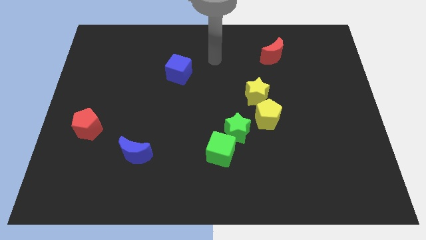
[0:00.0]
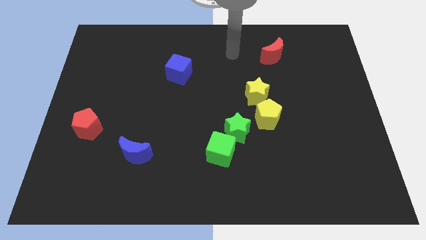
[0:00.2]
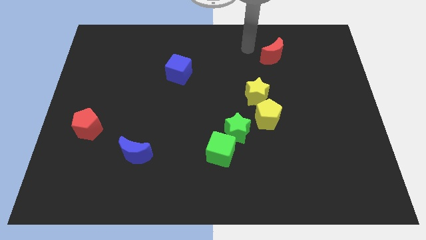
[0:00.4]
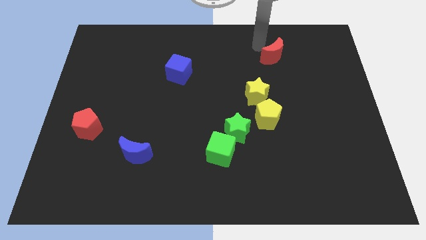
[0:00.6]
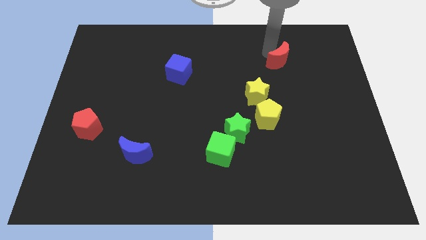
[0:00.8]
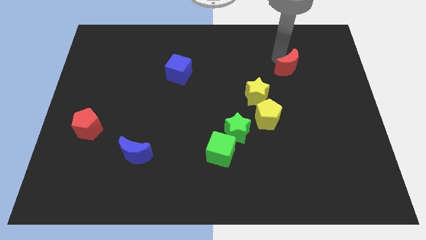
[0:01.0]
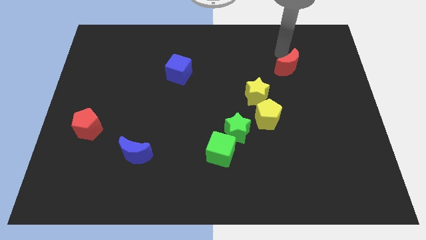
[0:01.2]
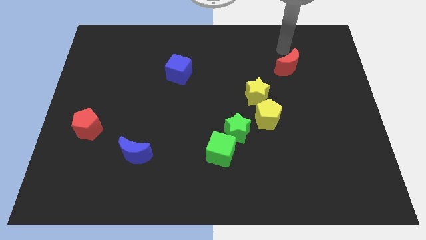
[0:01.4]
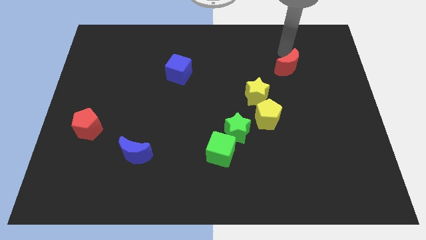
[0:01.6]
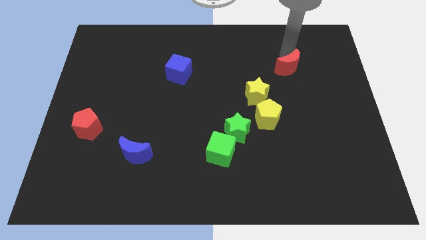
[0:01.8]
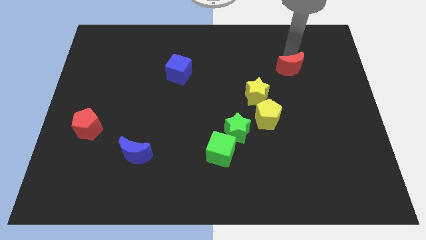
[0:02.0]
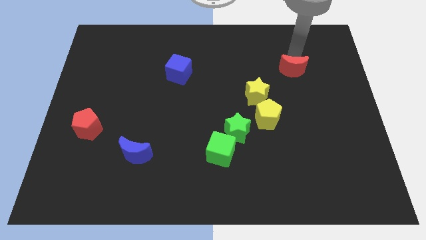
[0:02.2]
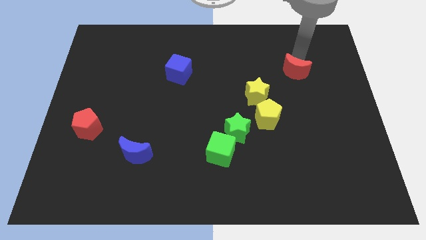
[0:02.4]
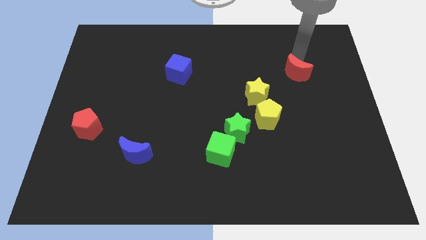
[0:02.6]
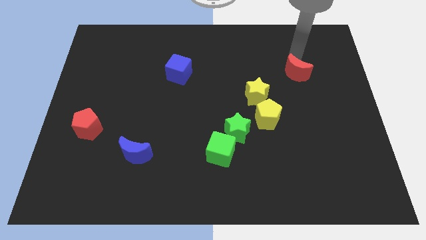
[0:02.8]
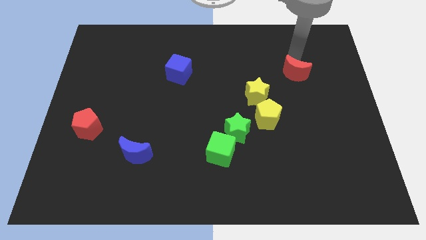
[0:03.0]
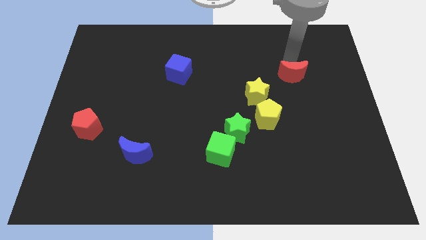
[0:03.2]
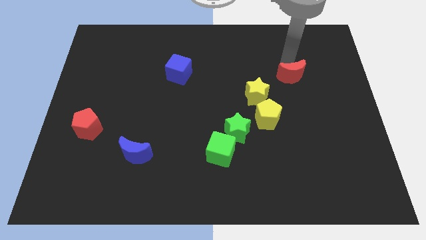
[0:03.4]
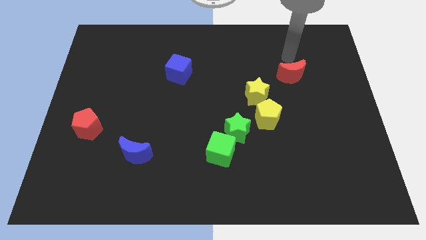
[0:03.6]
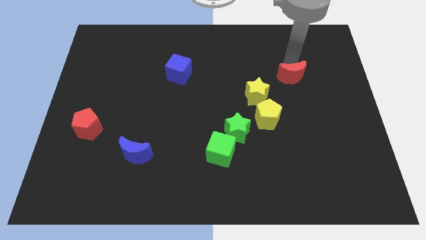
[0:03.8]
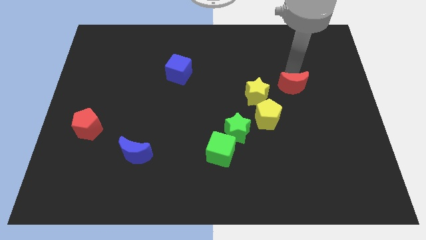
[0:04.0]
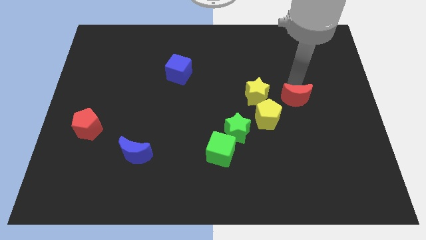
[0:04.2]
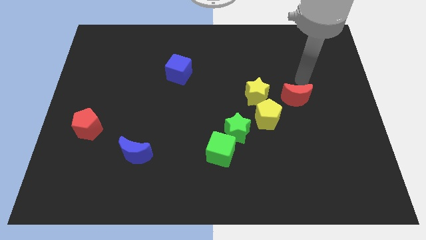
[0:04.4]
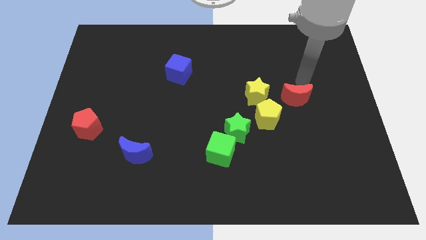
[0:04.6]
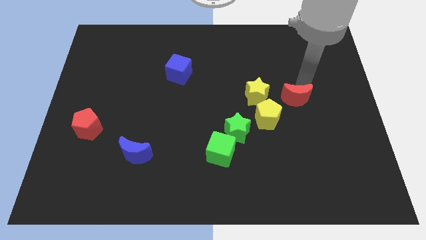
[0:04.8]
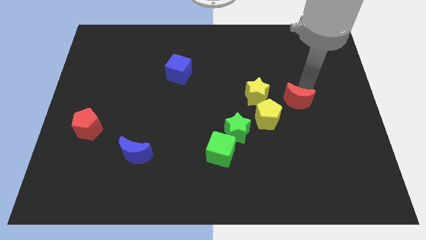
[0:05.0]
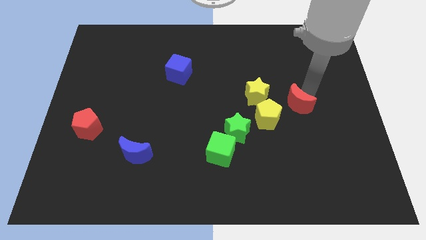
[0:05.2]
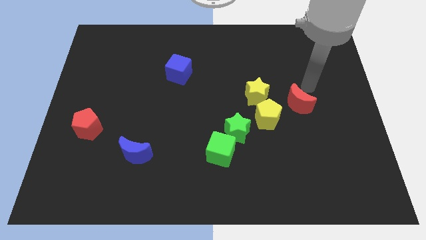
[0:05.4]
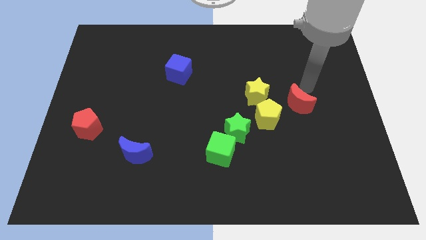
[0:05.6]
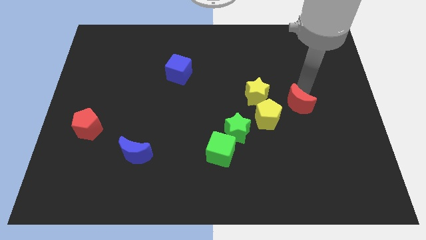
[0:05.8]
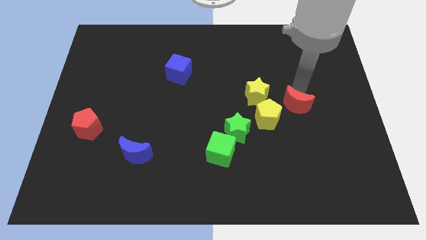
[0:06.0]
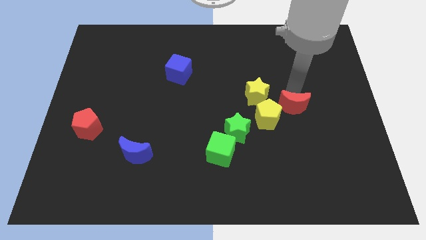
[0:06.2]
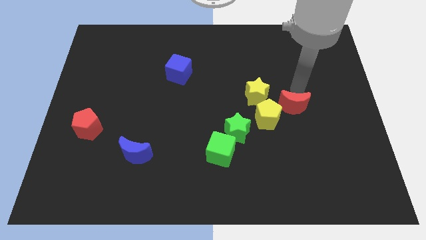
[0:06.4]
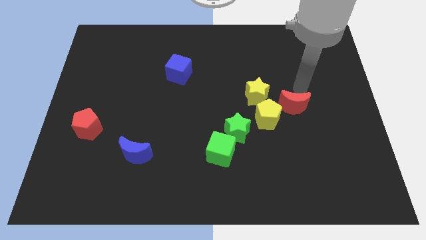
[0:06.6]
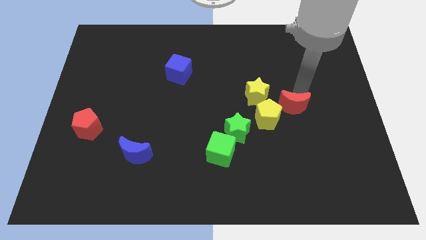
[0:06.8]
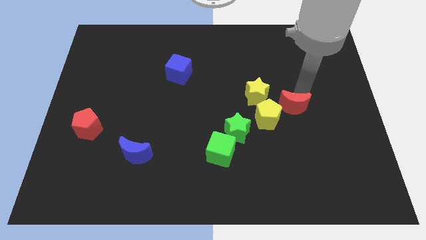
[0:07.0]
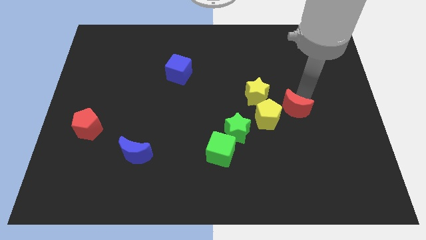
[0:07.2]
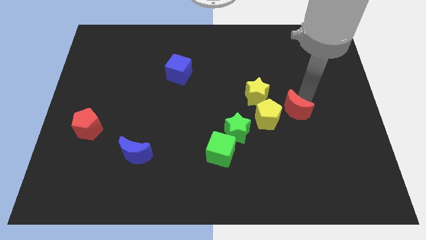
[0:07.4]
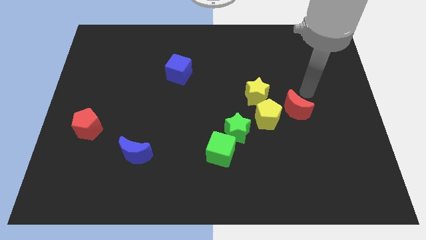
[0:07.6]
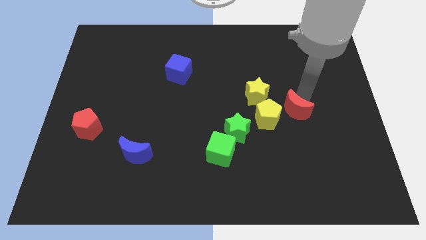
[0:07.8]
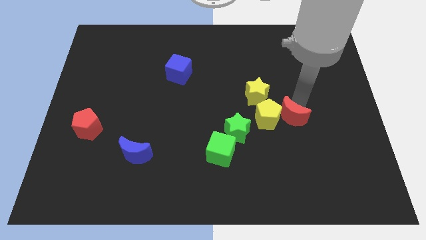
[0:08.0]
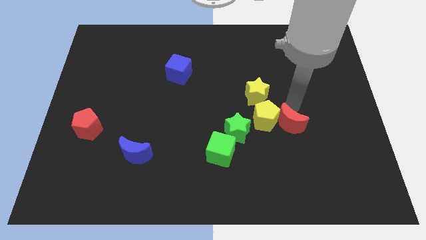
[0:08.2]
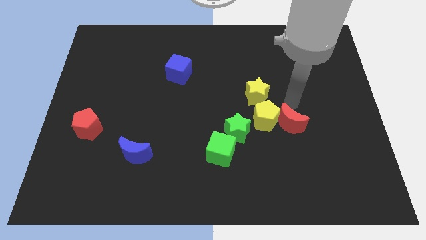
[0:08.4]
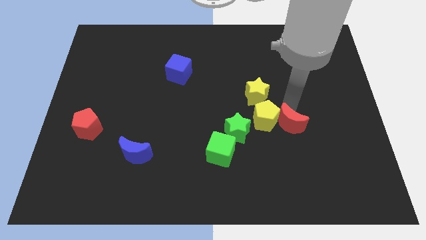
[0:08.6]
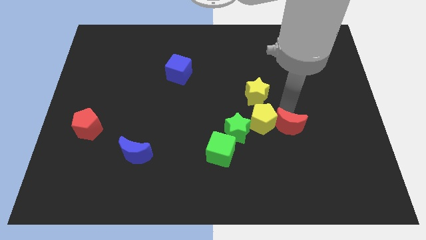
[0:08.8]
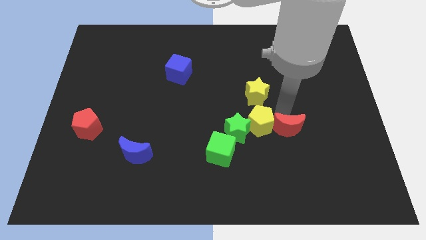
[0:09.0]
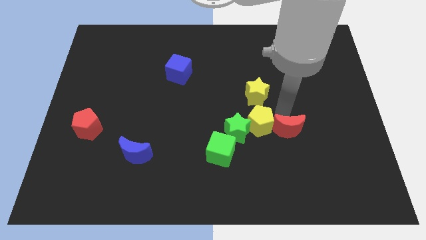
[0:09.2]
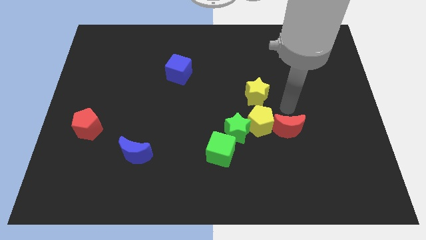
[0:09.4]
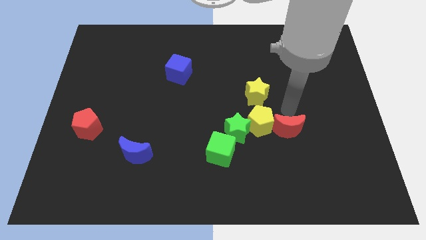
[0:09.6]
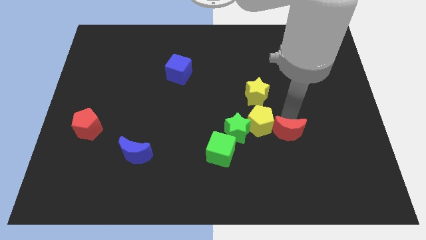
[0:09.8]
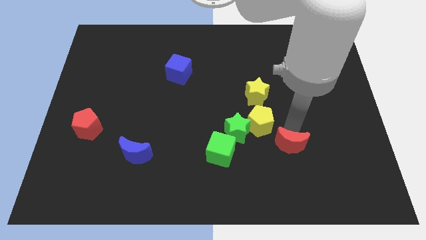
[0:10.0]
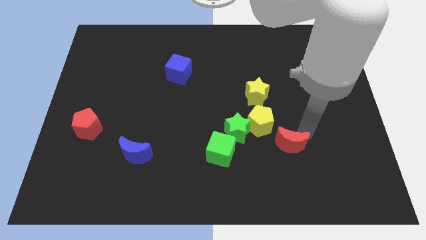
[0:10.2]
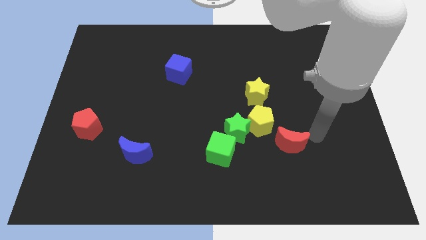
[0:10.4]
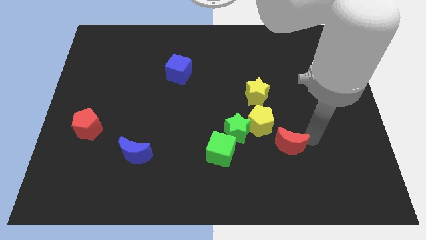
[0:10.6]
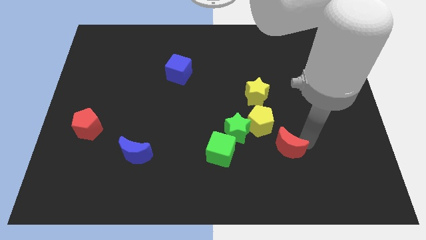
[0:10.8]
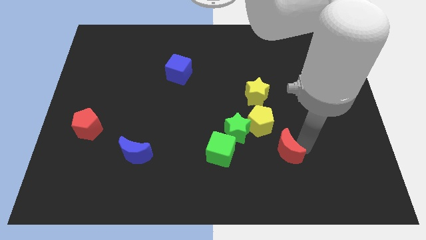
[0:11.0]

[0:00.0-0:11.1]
put the red moon to the bottom right of the green star

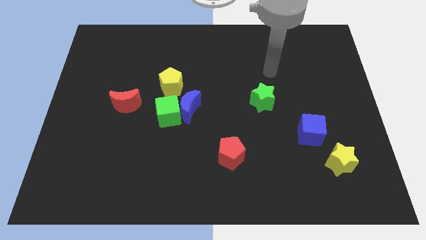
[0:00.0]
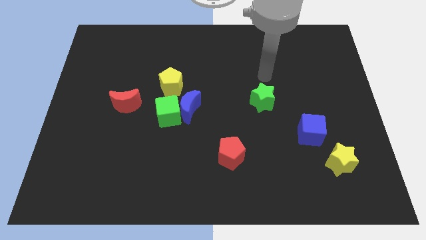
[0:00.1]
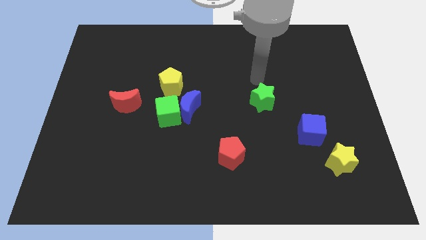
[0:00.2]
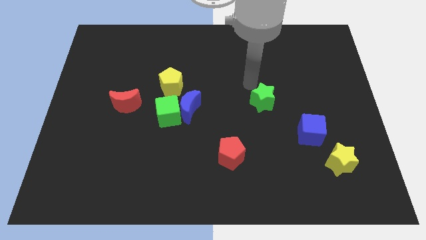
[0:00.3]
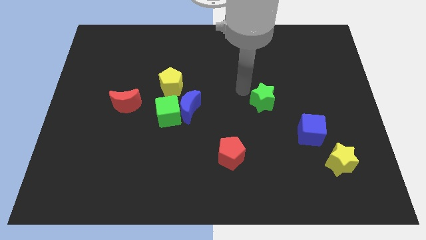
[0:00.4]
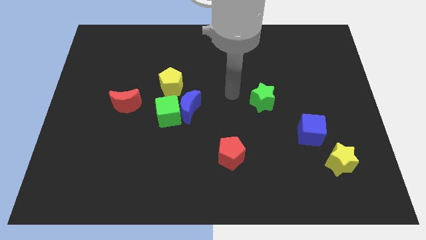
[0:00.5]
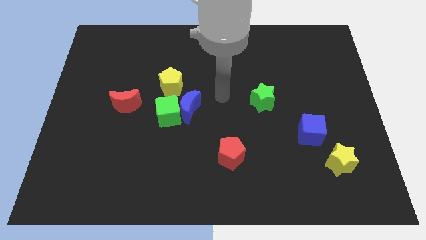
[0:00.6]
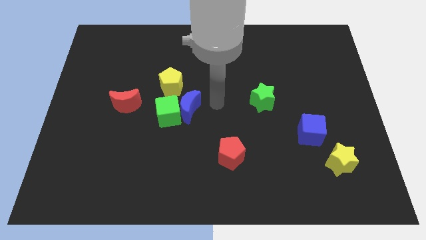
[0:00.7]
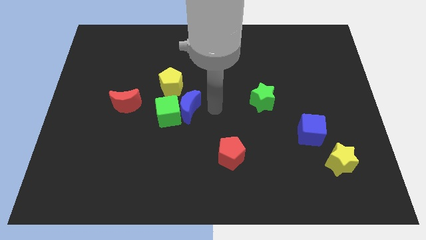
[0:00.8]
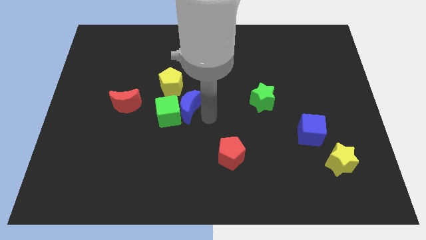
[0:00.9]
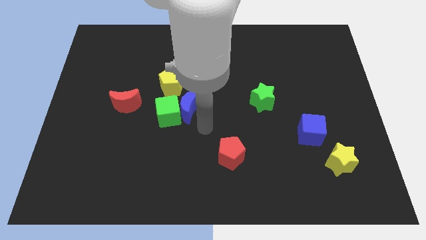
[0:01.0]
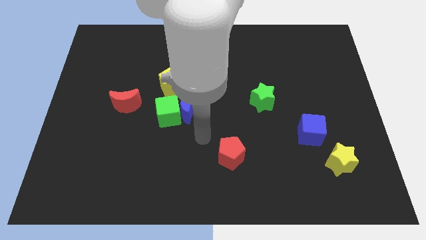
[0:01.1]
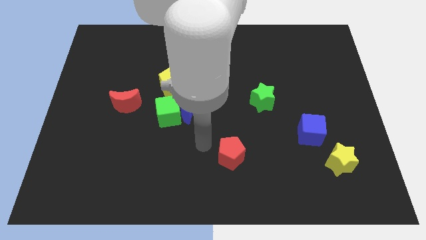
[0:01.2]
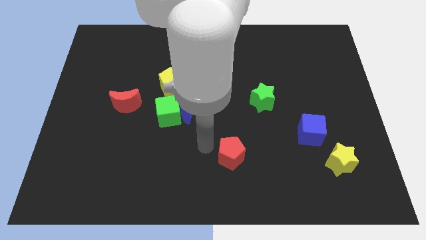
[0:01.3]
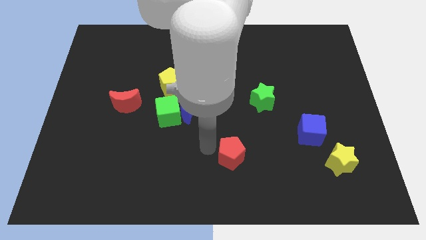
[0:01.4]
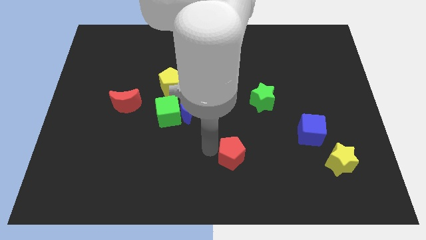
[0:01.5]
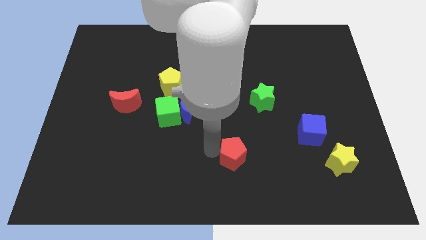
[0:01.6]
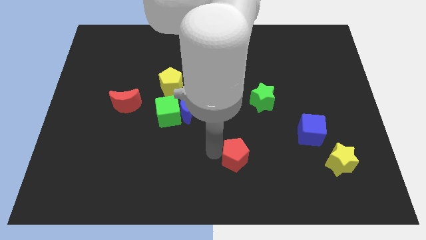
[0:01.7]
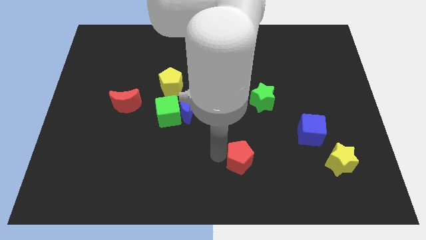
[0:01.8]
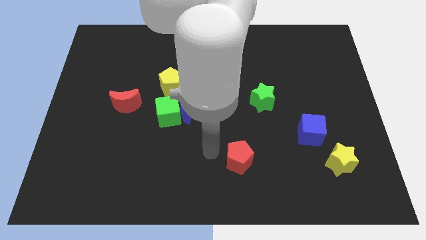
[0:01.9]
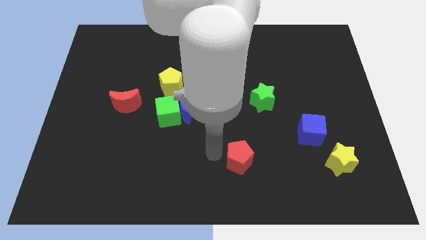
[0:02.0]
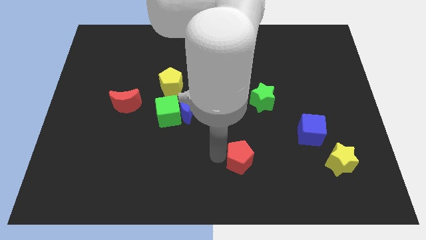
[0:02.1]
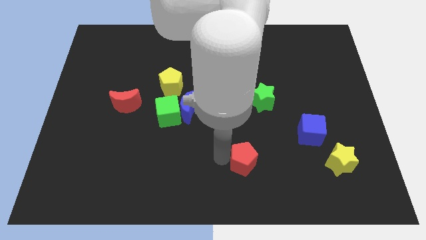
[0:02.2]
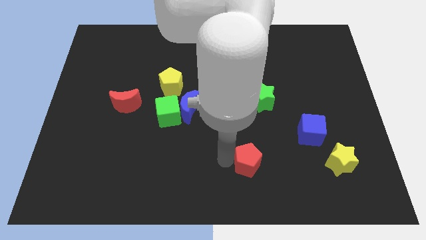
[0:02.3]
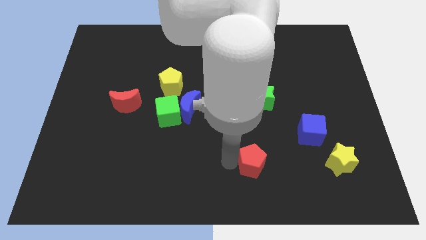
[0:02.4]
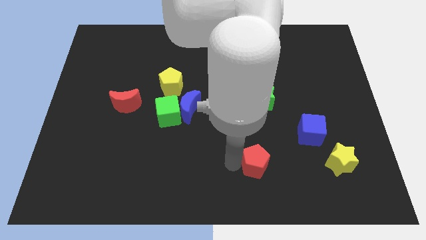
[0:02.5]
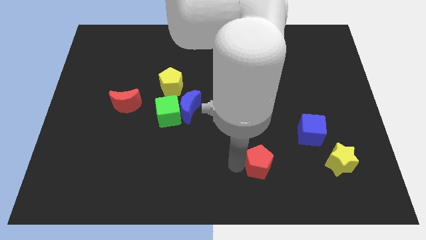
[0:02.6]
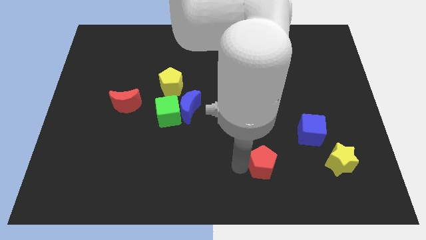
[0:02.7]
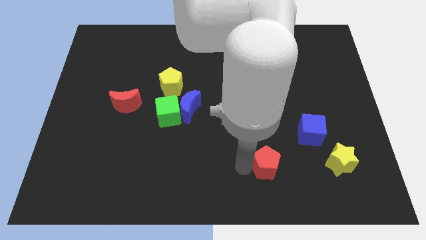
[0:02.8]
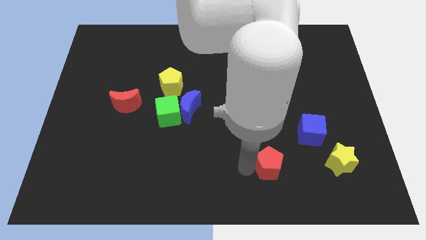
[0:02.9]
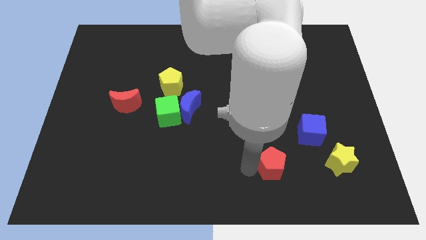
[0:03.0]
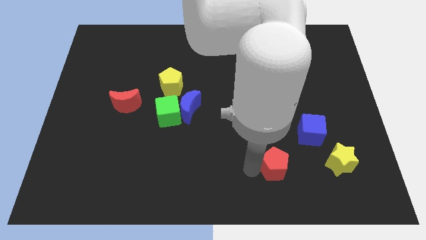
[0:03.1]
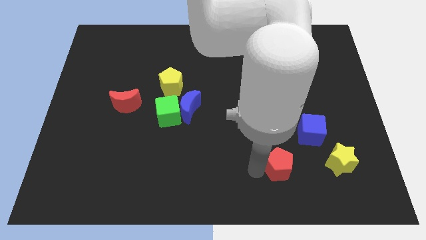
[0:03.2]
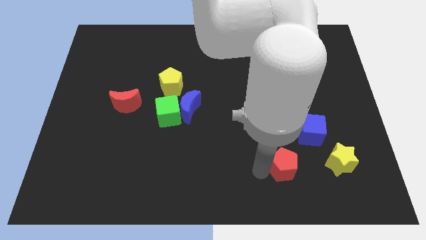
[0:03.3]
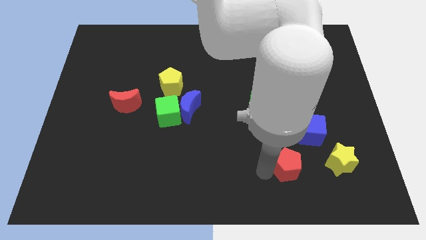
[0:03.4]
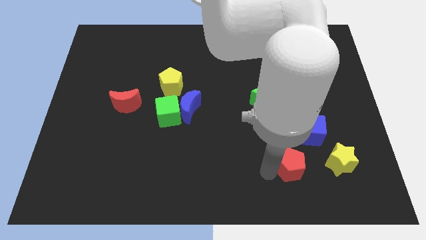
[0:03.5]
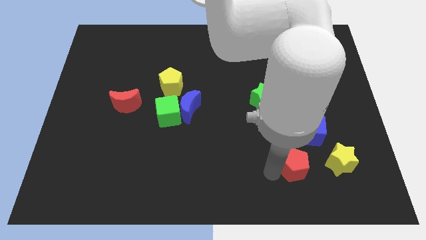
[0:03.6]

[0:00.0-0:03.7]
slide the red pentagon to the bottom of the blue cube
